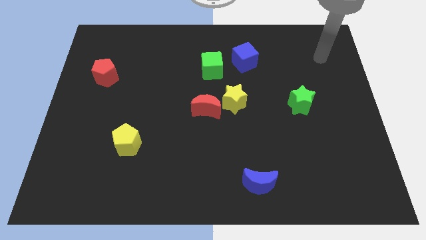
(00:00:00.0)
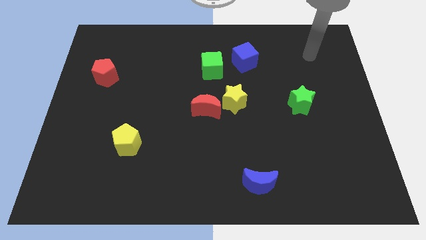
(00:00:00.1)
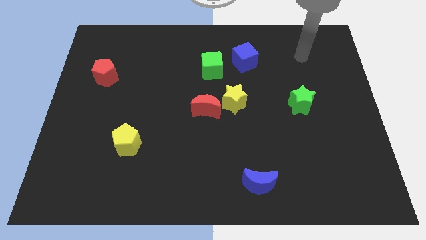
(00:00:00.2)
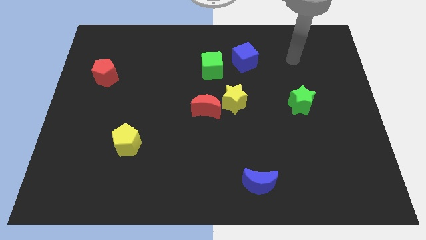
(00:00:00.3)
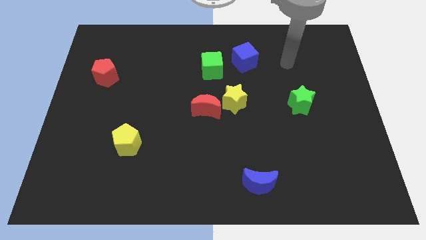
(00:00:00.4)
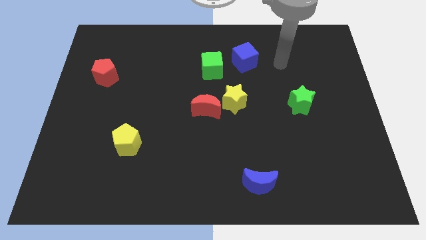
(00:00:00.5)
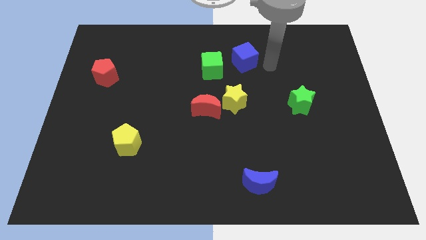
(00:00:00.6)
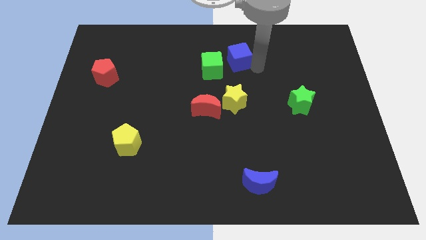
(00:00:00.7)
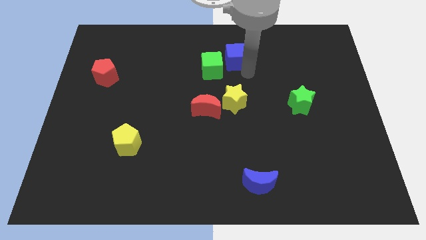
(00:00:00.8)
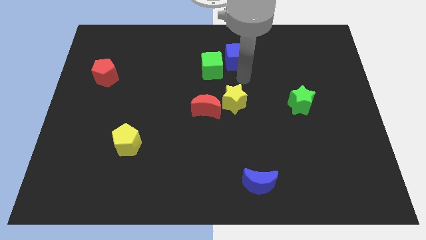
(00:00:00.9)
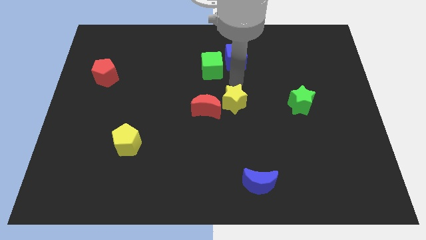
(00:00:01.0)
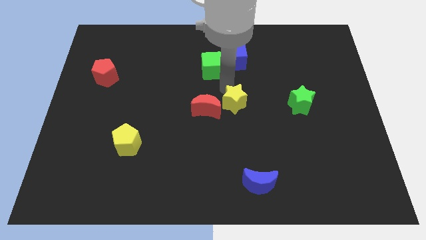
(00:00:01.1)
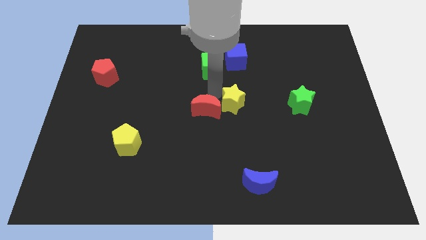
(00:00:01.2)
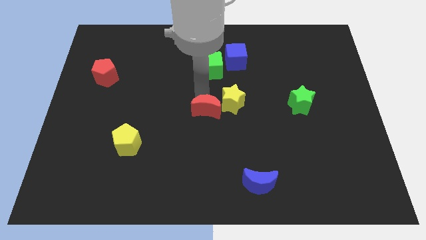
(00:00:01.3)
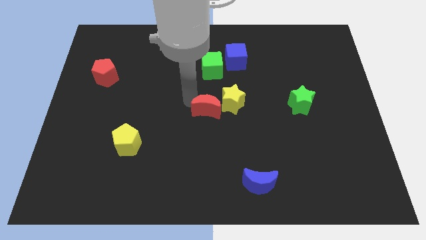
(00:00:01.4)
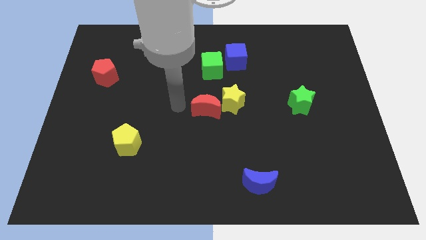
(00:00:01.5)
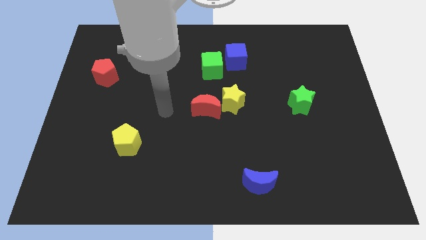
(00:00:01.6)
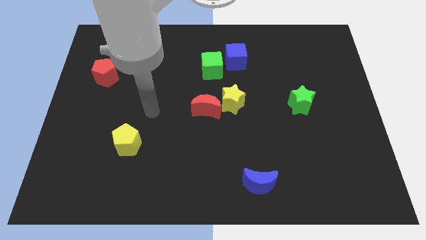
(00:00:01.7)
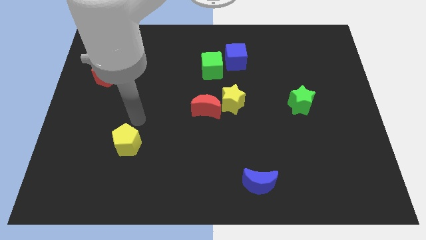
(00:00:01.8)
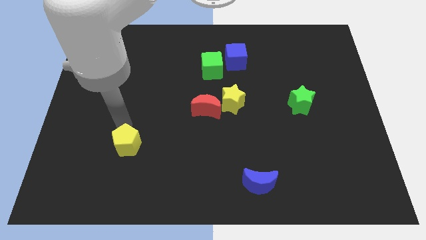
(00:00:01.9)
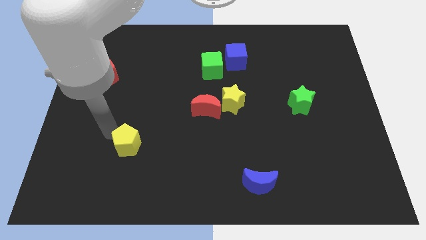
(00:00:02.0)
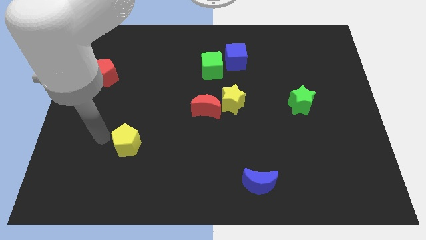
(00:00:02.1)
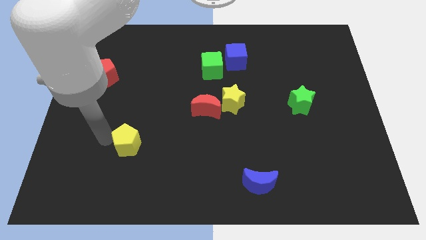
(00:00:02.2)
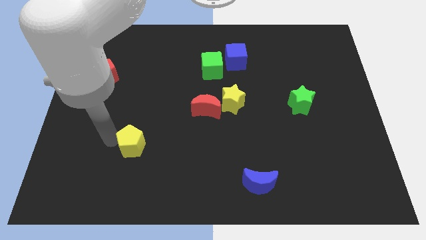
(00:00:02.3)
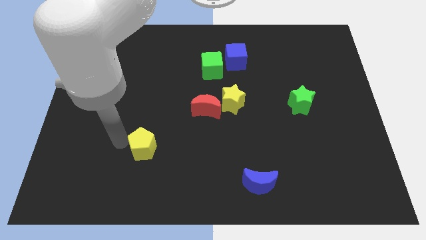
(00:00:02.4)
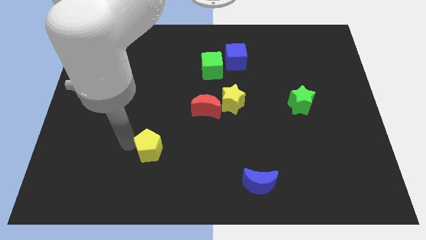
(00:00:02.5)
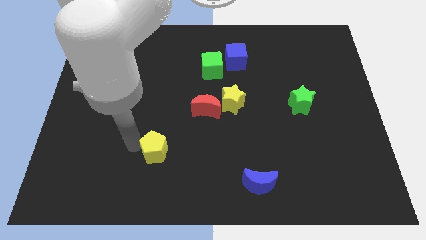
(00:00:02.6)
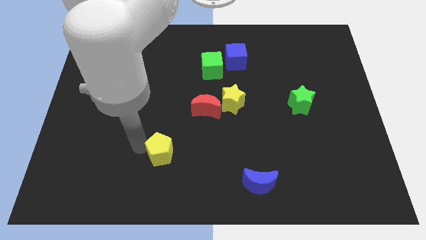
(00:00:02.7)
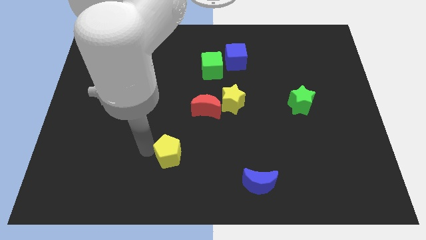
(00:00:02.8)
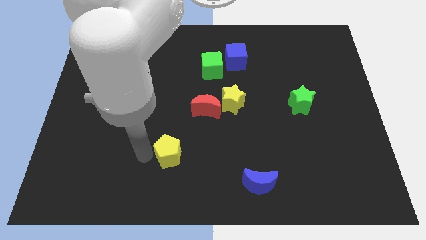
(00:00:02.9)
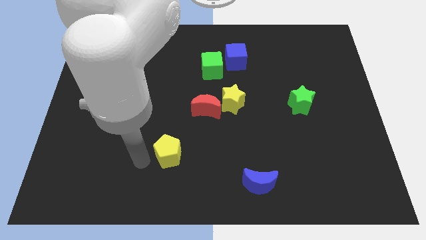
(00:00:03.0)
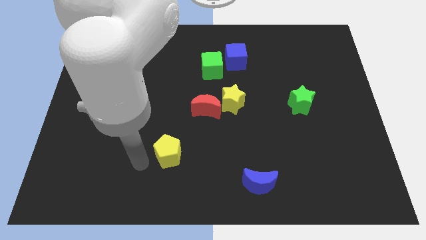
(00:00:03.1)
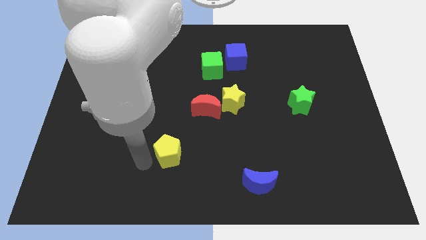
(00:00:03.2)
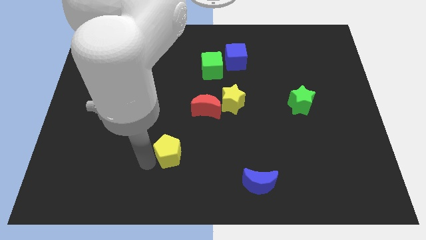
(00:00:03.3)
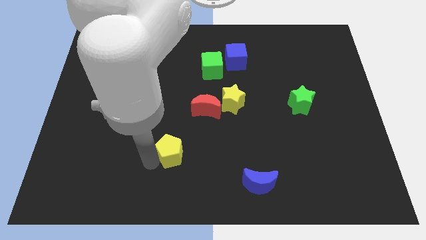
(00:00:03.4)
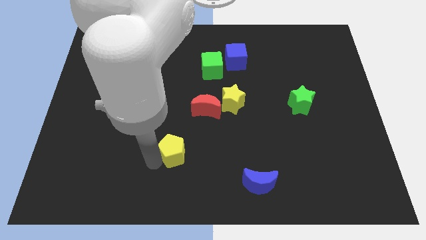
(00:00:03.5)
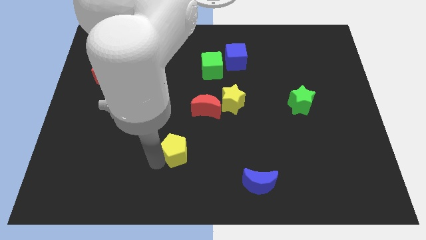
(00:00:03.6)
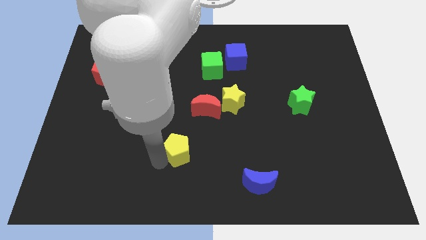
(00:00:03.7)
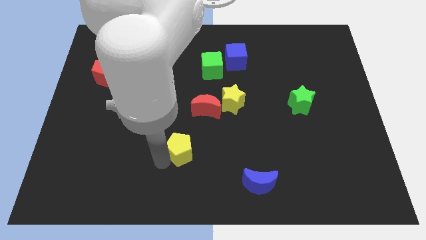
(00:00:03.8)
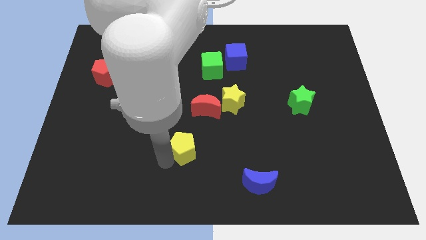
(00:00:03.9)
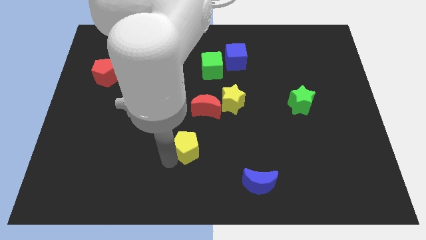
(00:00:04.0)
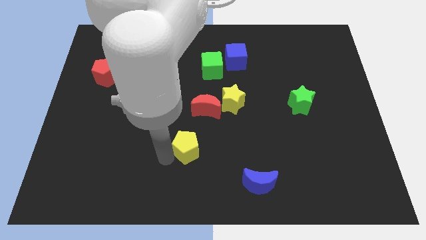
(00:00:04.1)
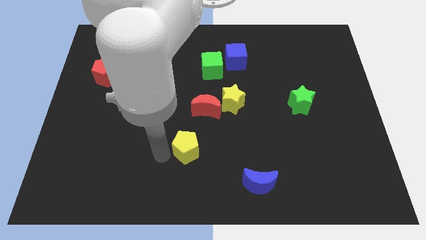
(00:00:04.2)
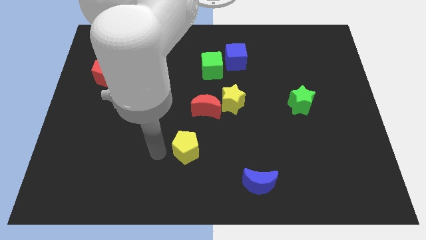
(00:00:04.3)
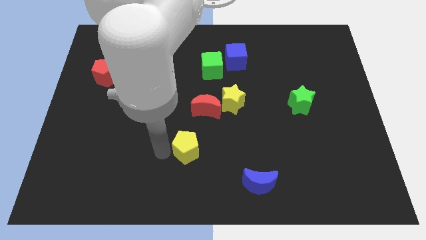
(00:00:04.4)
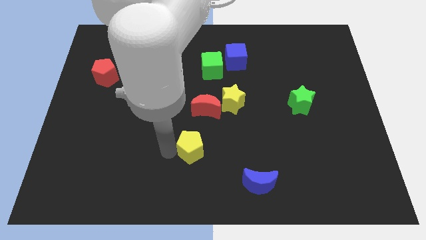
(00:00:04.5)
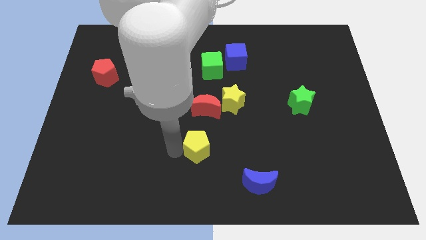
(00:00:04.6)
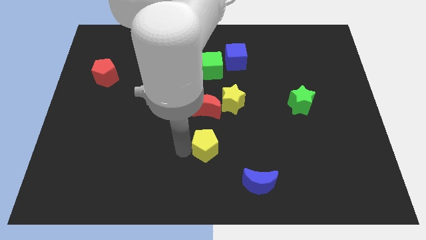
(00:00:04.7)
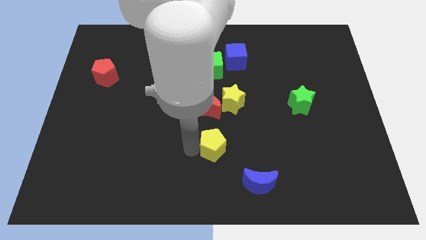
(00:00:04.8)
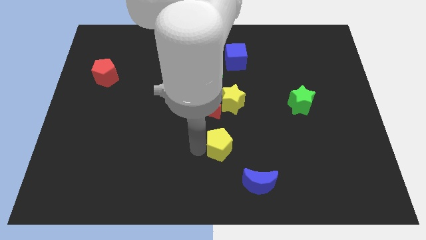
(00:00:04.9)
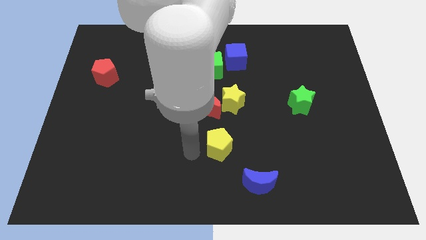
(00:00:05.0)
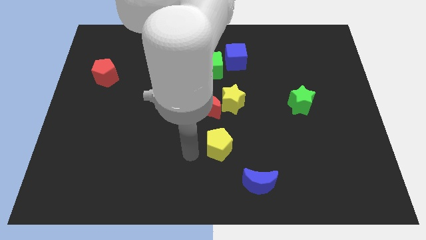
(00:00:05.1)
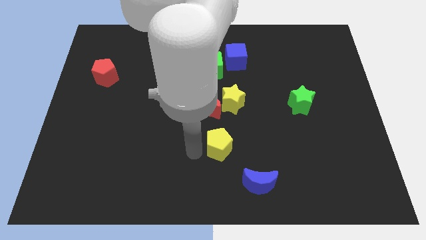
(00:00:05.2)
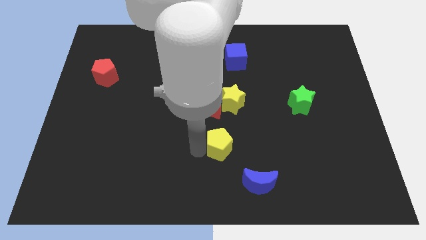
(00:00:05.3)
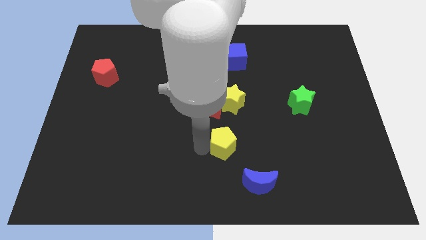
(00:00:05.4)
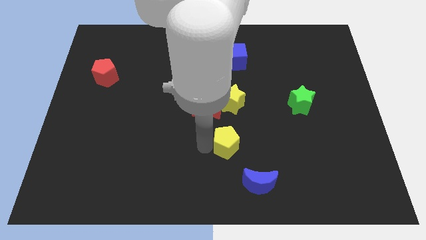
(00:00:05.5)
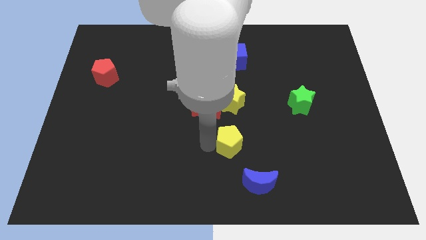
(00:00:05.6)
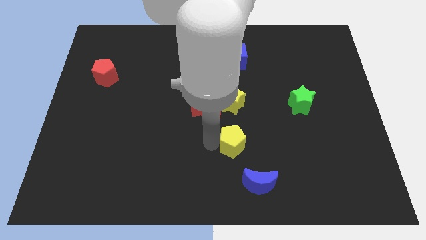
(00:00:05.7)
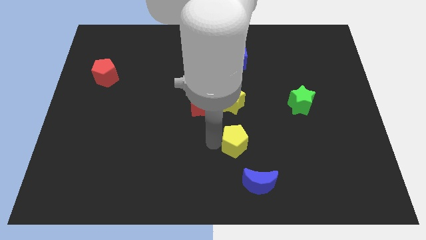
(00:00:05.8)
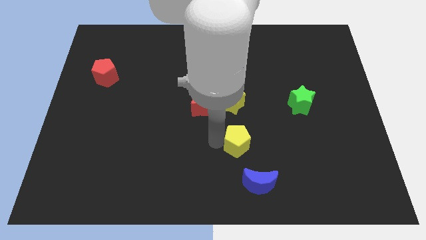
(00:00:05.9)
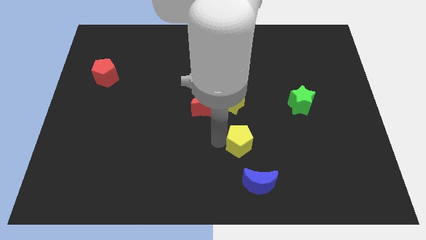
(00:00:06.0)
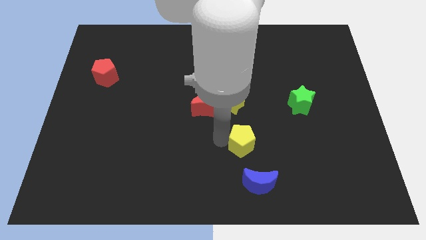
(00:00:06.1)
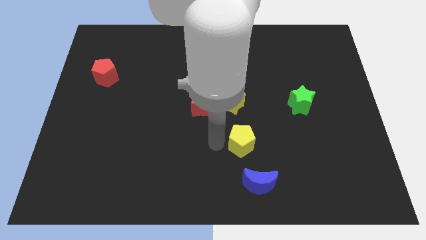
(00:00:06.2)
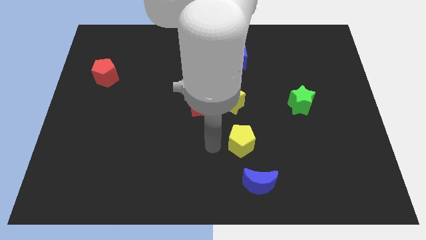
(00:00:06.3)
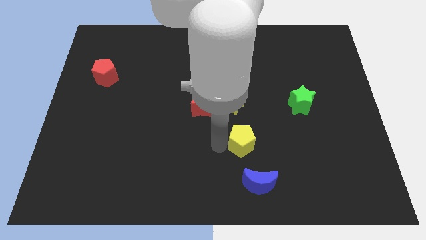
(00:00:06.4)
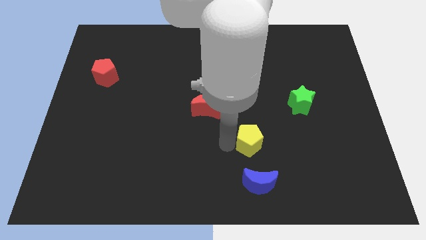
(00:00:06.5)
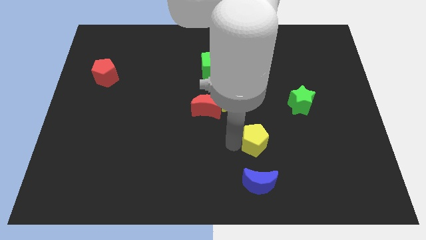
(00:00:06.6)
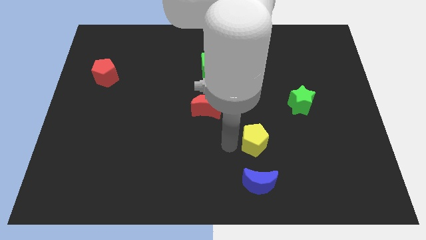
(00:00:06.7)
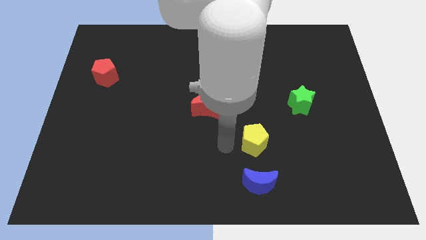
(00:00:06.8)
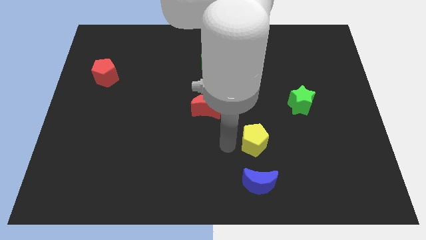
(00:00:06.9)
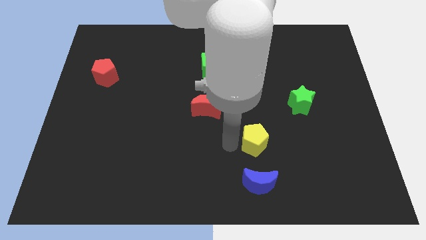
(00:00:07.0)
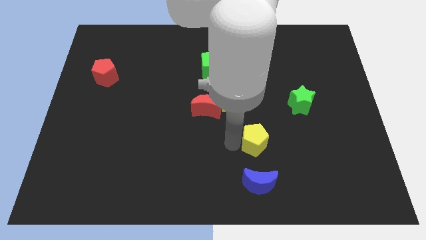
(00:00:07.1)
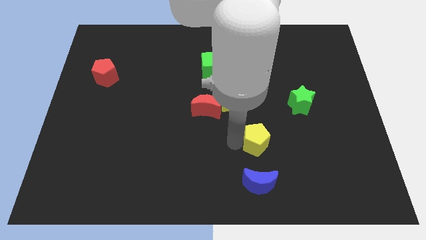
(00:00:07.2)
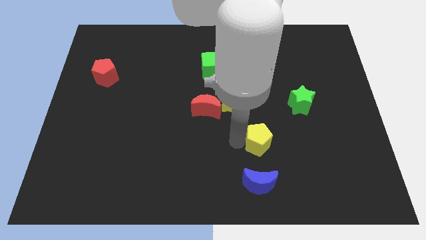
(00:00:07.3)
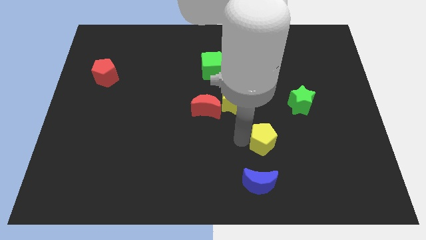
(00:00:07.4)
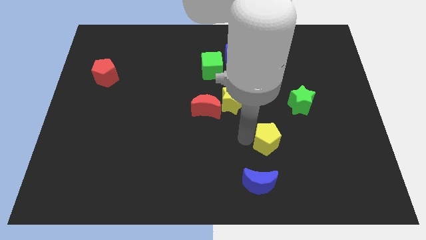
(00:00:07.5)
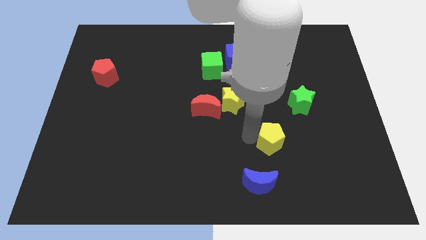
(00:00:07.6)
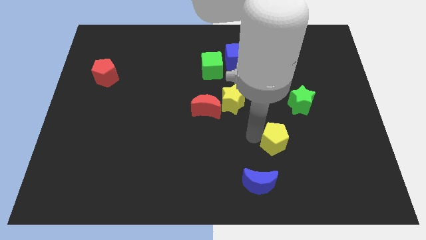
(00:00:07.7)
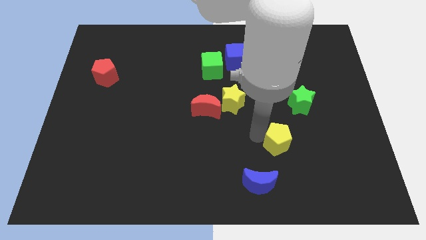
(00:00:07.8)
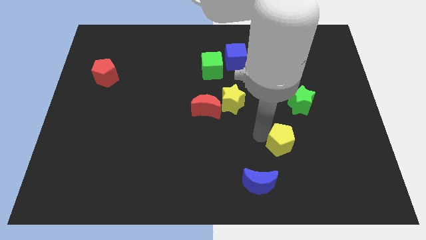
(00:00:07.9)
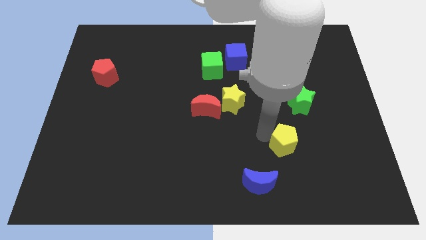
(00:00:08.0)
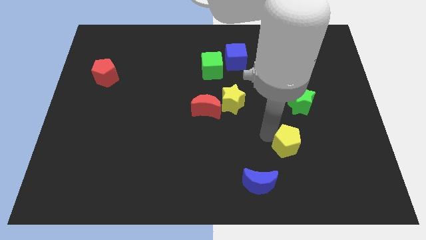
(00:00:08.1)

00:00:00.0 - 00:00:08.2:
push the yellow pentagon to the bottom side of the green star
